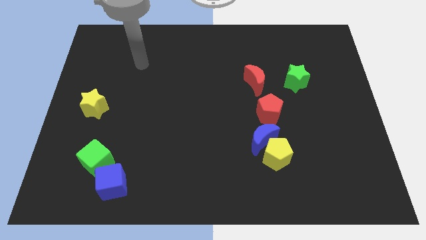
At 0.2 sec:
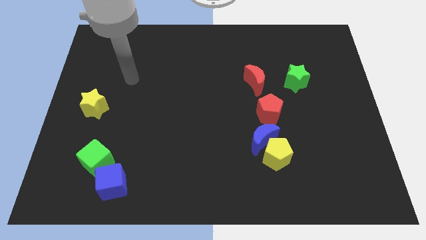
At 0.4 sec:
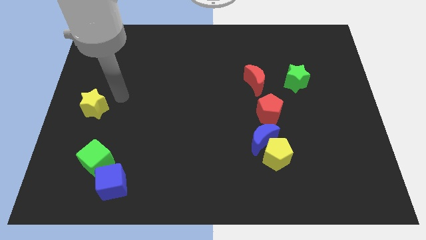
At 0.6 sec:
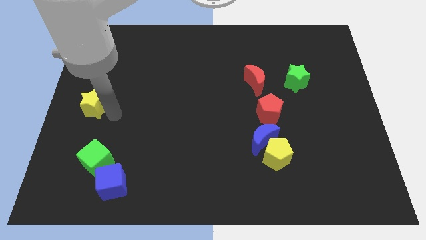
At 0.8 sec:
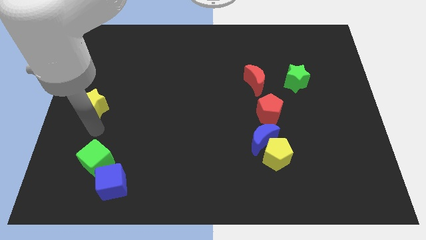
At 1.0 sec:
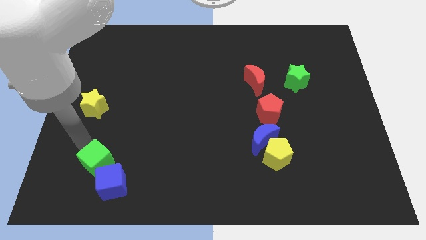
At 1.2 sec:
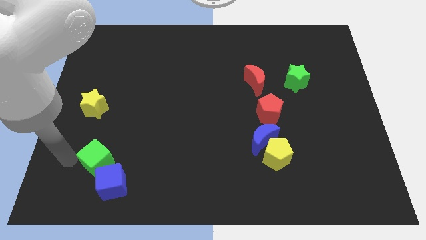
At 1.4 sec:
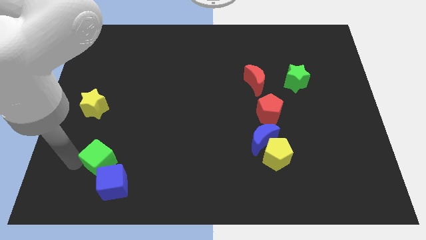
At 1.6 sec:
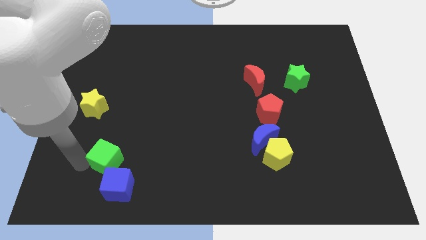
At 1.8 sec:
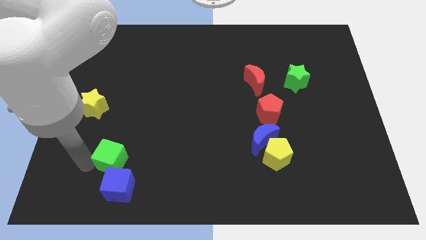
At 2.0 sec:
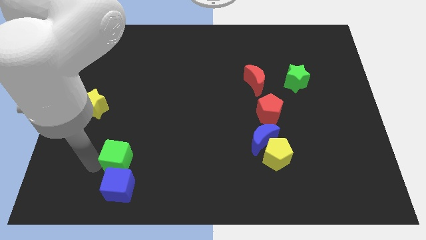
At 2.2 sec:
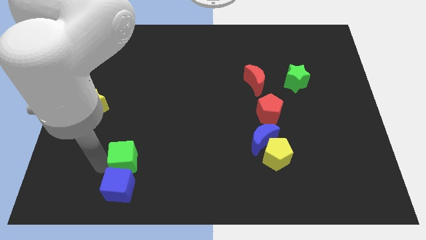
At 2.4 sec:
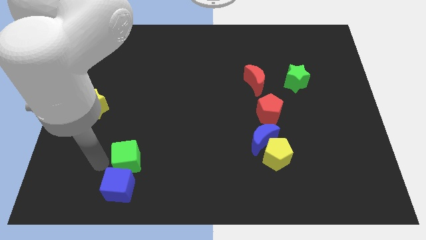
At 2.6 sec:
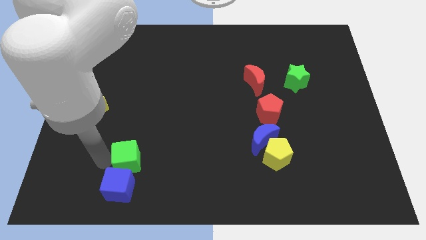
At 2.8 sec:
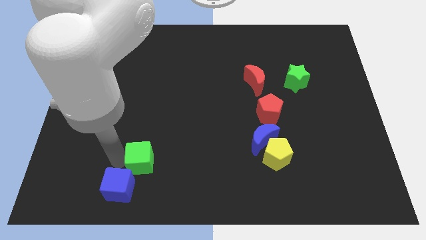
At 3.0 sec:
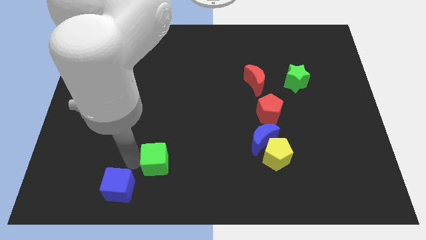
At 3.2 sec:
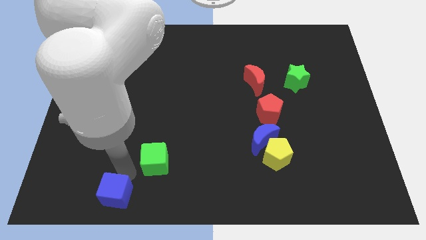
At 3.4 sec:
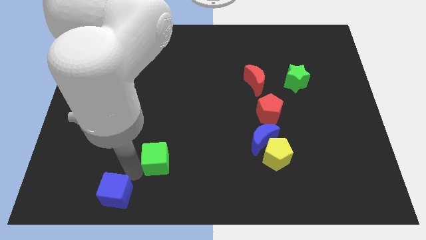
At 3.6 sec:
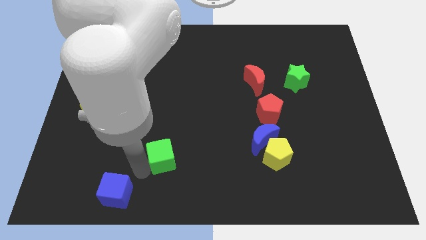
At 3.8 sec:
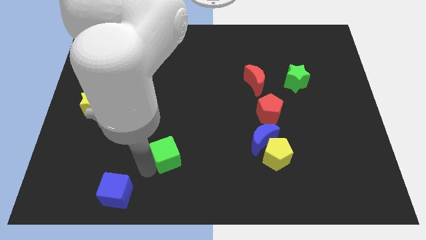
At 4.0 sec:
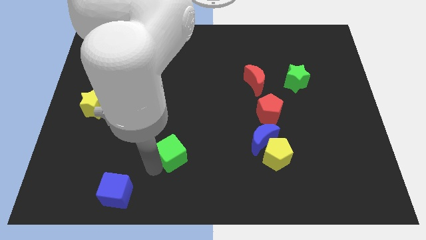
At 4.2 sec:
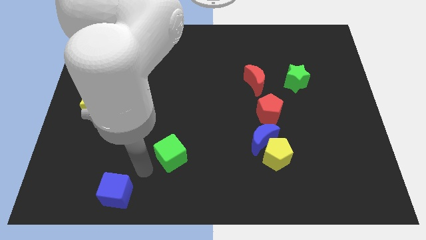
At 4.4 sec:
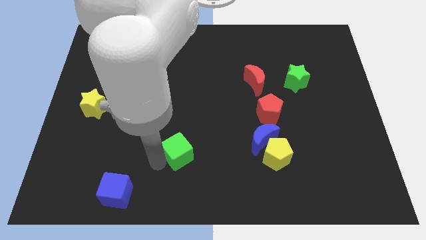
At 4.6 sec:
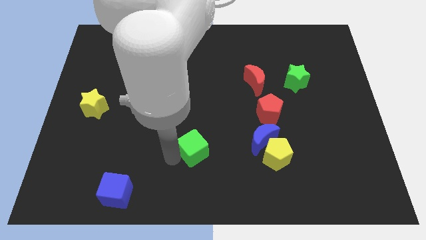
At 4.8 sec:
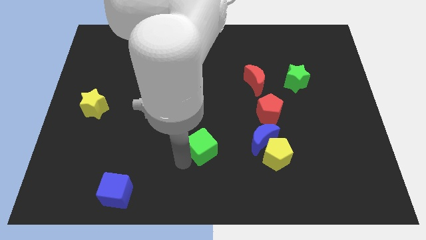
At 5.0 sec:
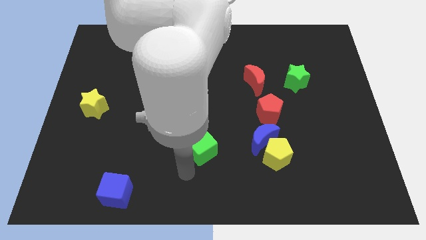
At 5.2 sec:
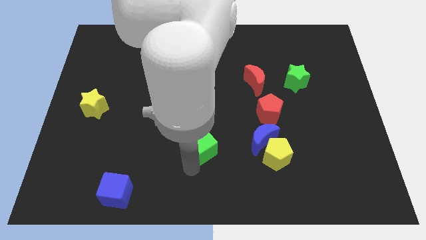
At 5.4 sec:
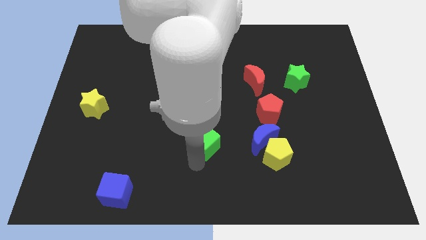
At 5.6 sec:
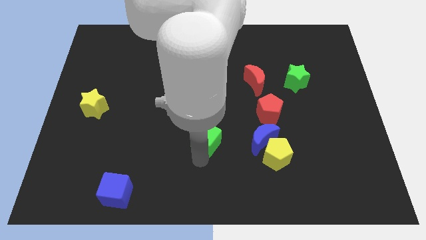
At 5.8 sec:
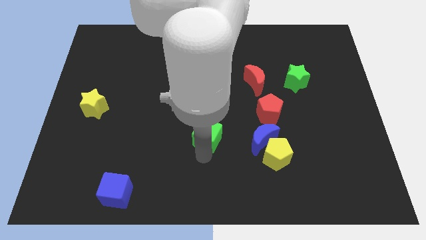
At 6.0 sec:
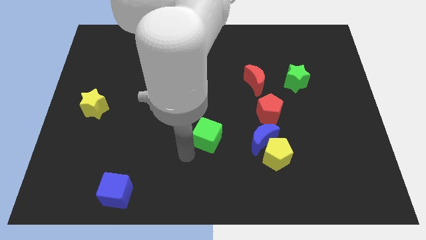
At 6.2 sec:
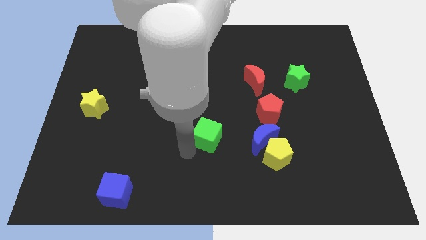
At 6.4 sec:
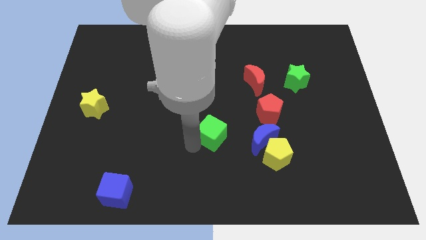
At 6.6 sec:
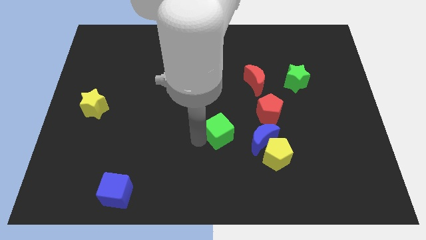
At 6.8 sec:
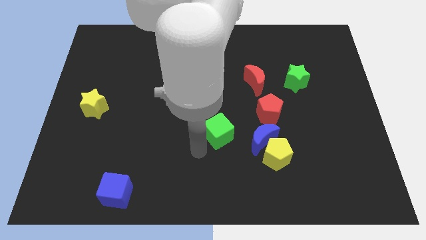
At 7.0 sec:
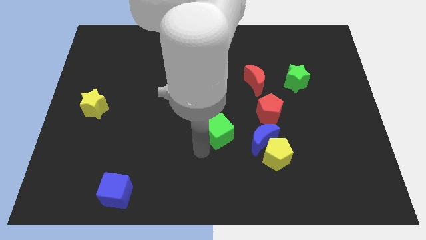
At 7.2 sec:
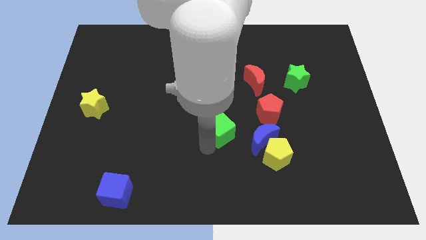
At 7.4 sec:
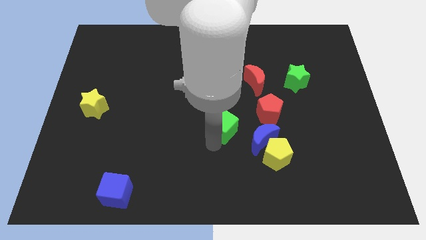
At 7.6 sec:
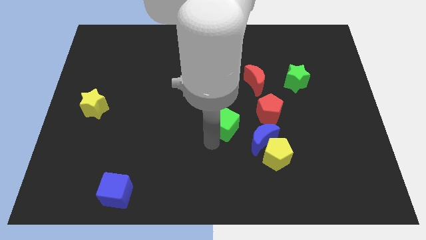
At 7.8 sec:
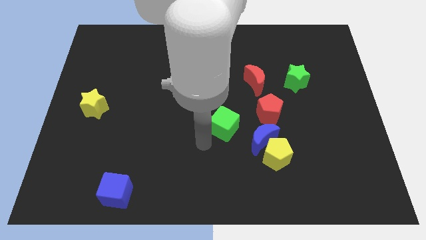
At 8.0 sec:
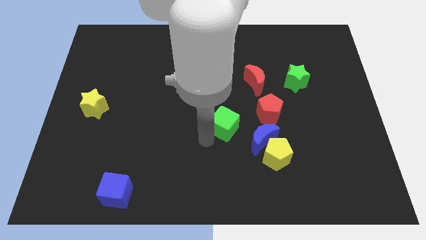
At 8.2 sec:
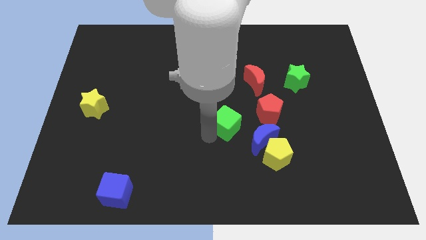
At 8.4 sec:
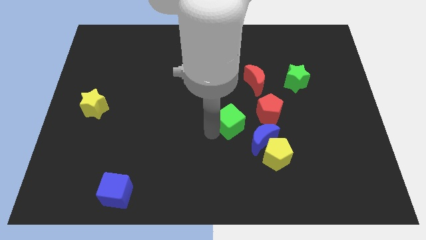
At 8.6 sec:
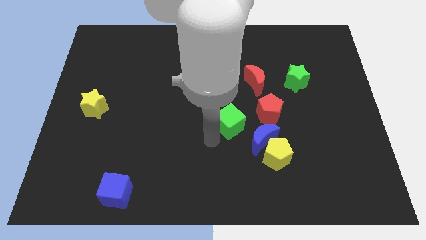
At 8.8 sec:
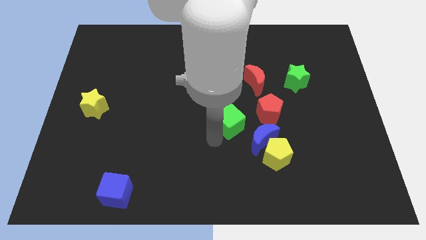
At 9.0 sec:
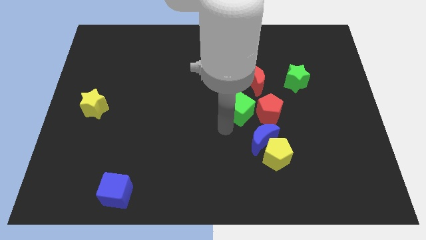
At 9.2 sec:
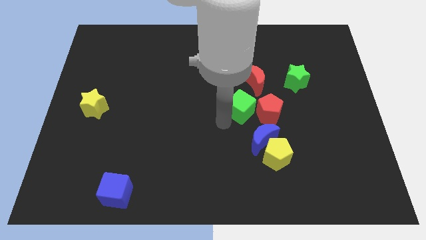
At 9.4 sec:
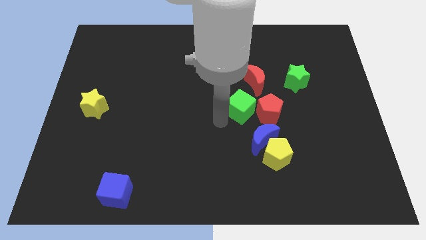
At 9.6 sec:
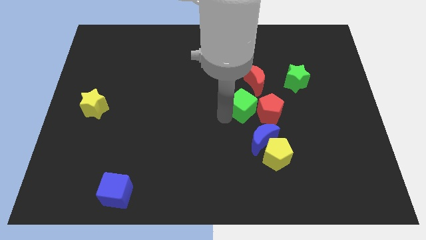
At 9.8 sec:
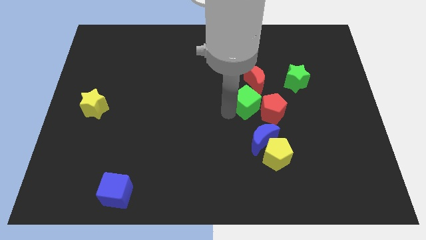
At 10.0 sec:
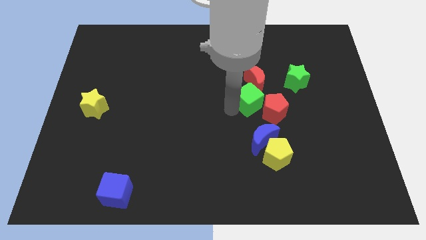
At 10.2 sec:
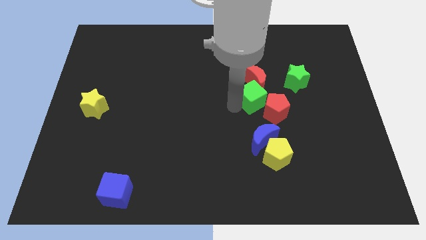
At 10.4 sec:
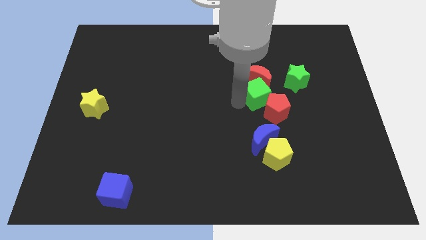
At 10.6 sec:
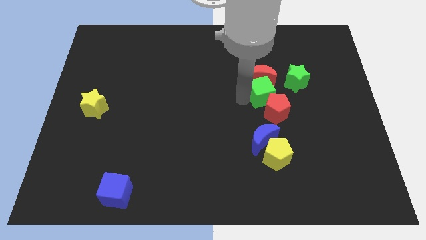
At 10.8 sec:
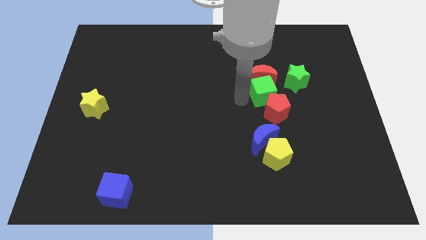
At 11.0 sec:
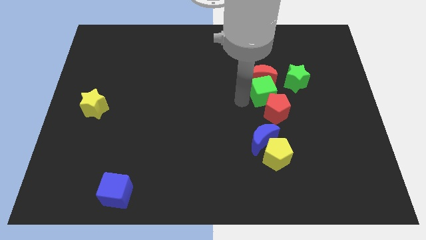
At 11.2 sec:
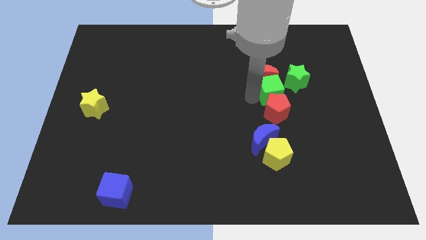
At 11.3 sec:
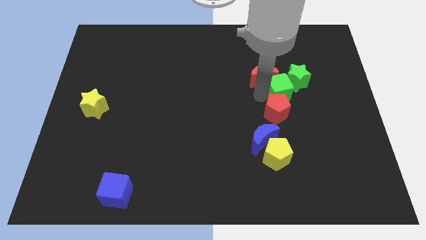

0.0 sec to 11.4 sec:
slide the green cube next to the green star

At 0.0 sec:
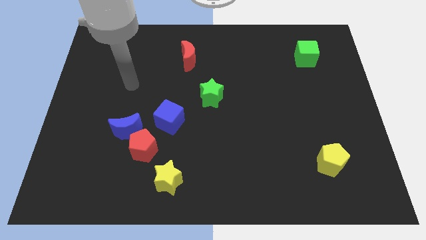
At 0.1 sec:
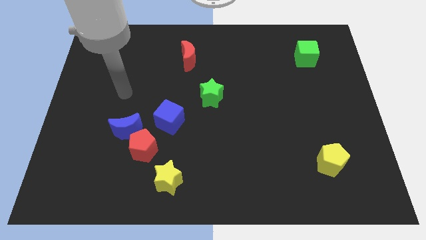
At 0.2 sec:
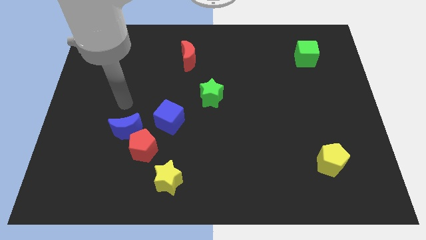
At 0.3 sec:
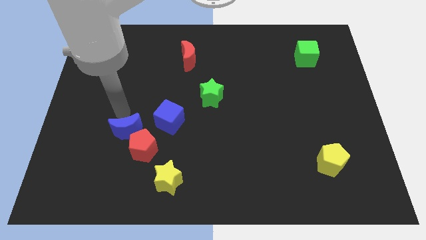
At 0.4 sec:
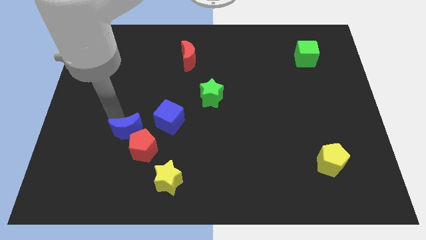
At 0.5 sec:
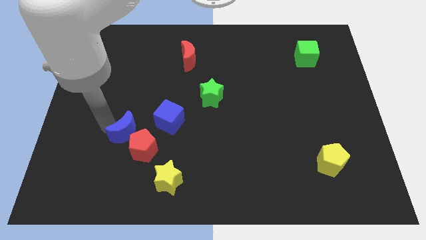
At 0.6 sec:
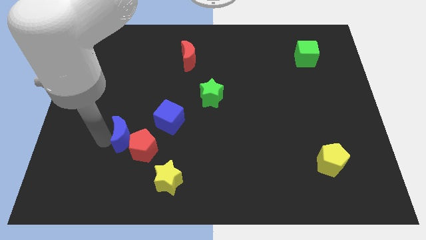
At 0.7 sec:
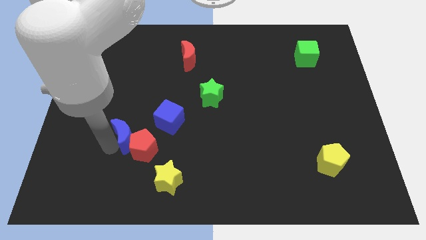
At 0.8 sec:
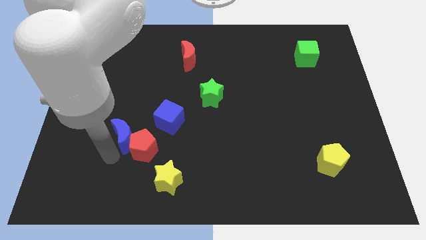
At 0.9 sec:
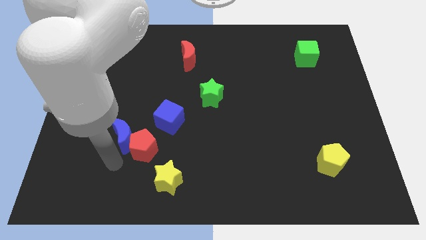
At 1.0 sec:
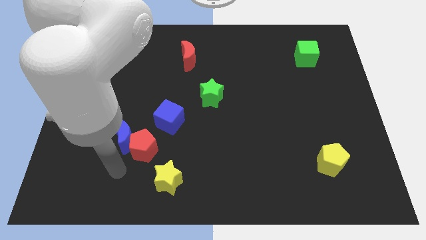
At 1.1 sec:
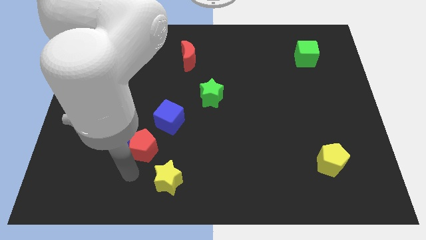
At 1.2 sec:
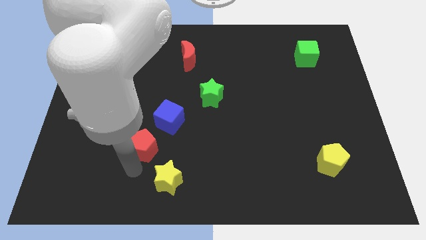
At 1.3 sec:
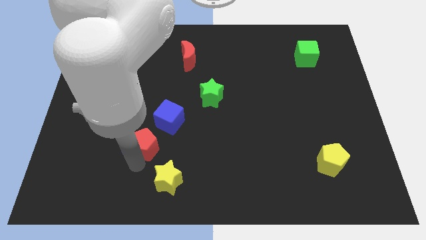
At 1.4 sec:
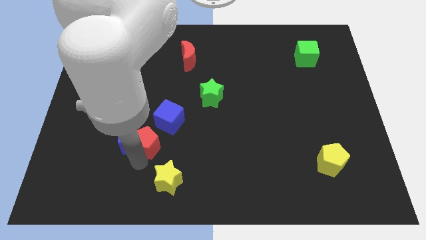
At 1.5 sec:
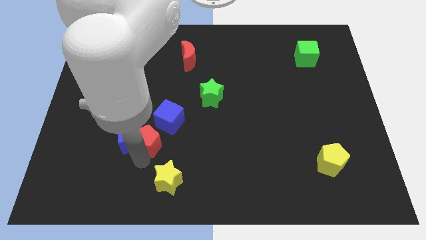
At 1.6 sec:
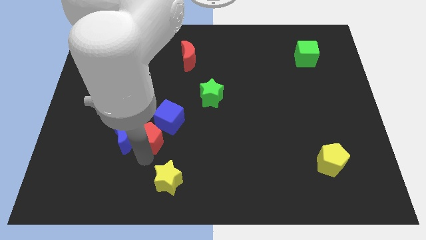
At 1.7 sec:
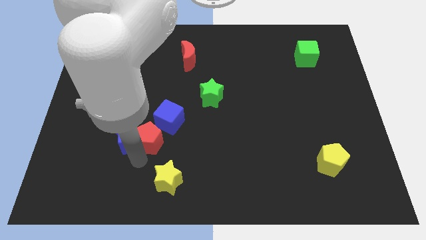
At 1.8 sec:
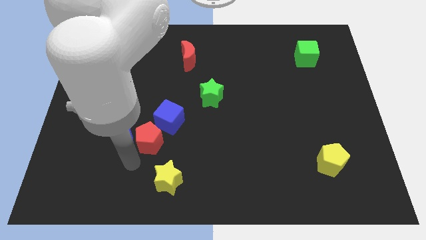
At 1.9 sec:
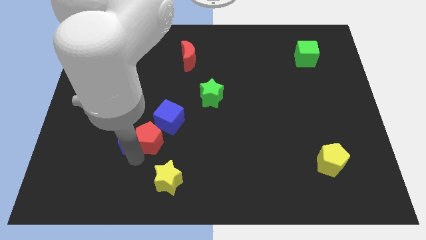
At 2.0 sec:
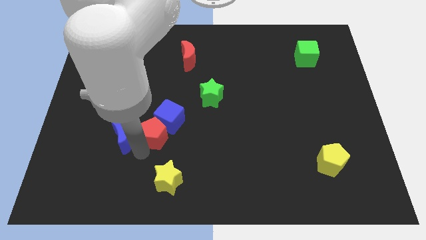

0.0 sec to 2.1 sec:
slide the red pentagon to the blue cube
